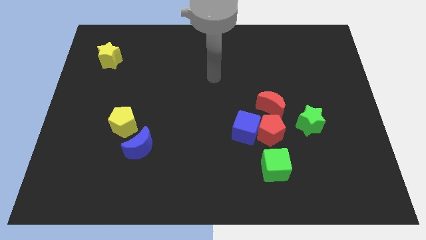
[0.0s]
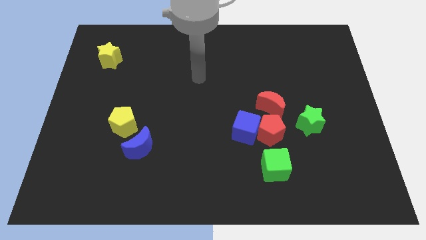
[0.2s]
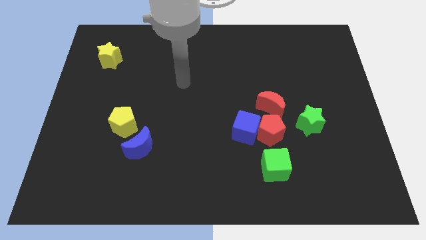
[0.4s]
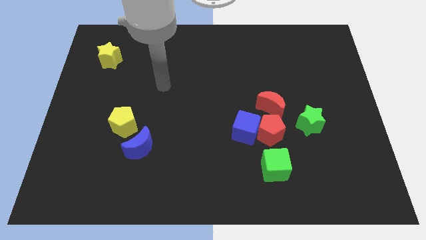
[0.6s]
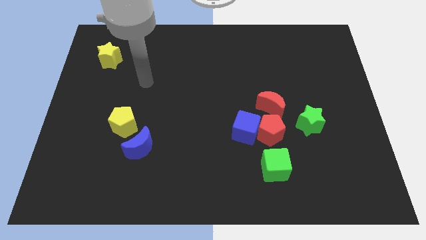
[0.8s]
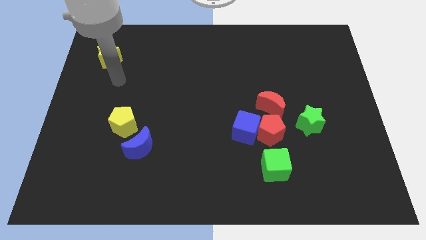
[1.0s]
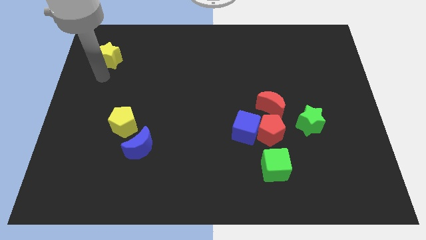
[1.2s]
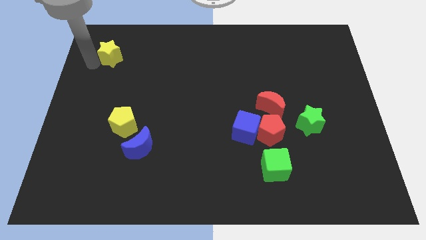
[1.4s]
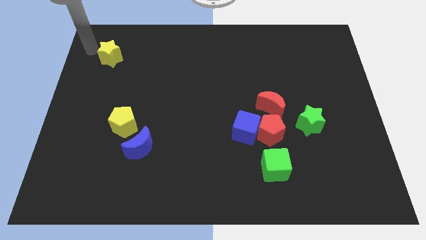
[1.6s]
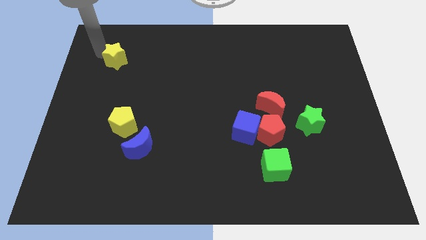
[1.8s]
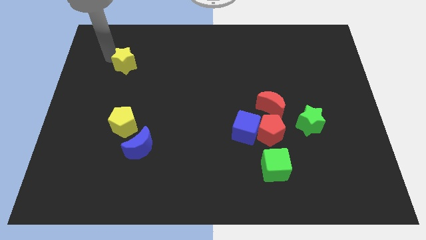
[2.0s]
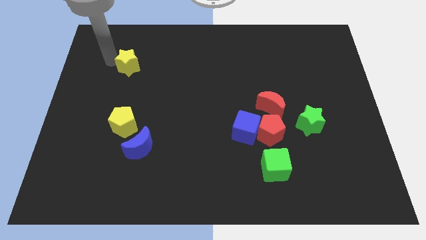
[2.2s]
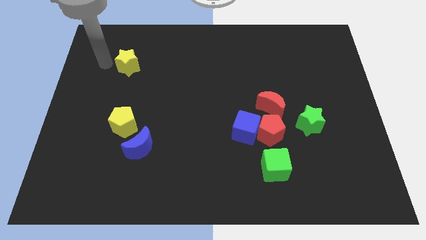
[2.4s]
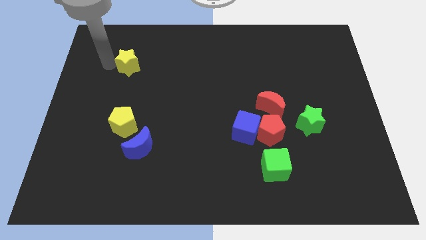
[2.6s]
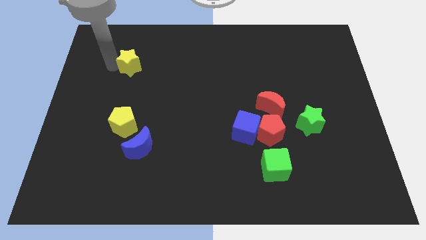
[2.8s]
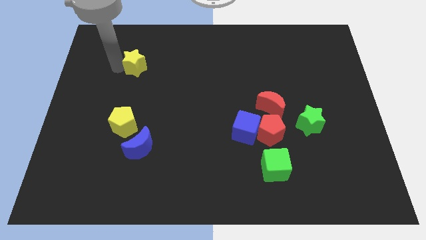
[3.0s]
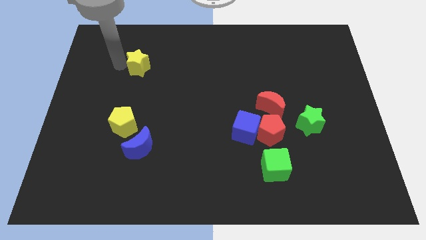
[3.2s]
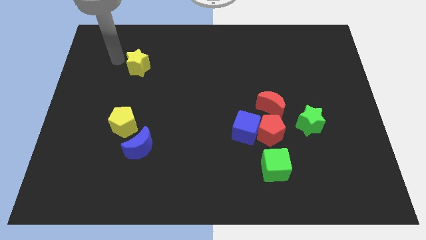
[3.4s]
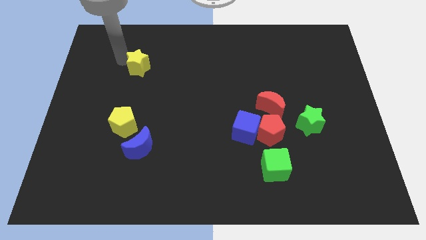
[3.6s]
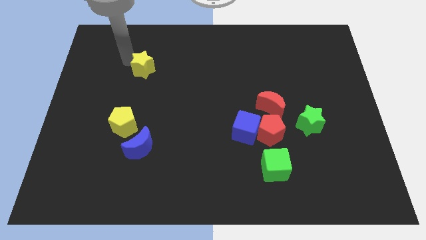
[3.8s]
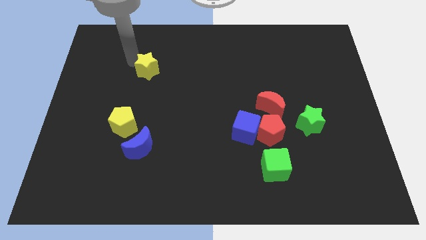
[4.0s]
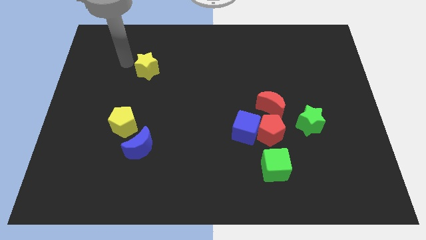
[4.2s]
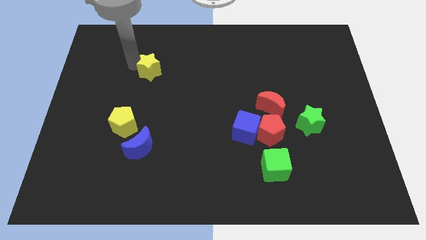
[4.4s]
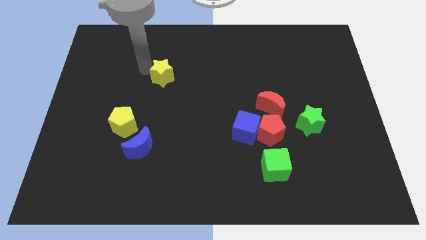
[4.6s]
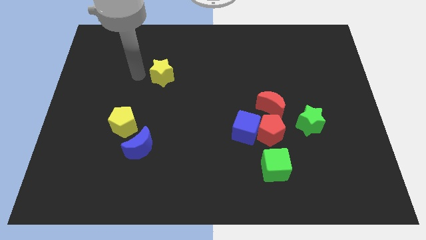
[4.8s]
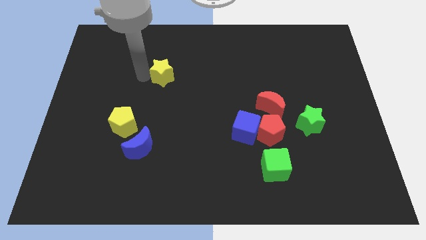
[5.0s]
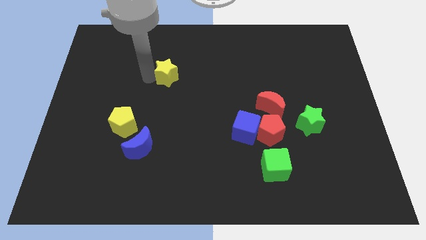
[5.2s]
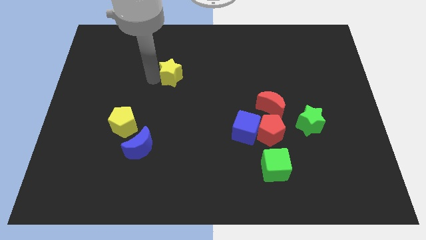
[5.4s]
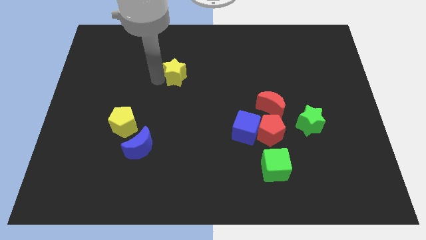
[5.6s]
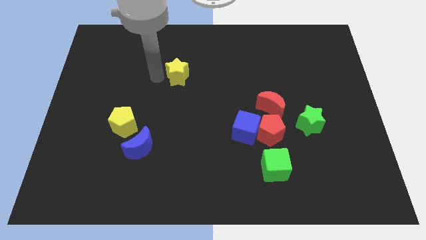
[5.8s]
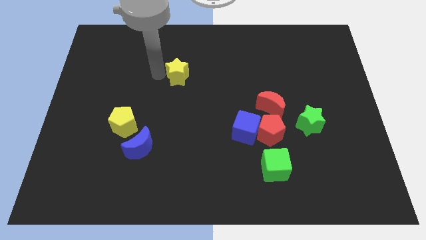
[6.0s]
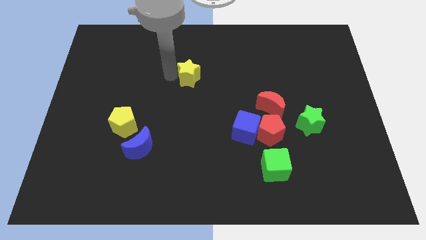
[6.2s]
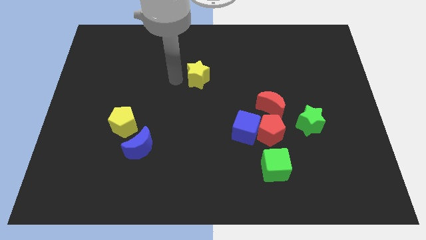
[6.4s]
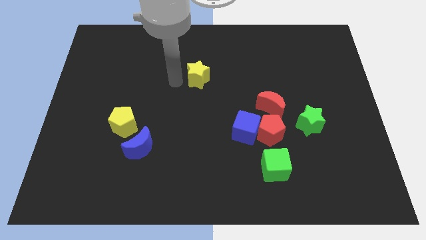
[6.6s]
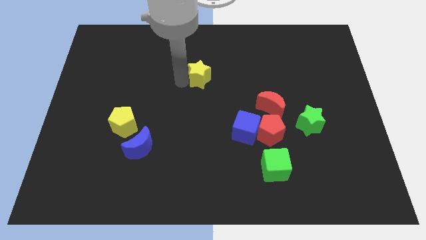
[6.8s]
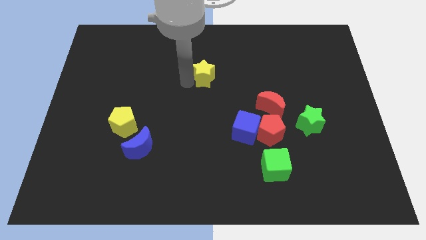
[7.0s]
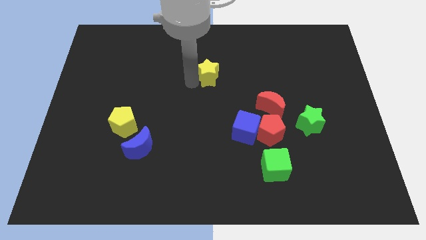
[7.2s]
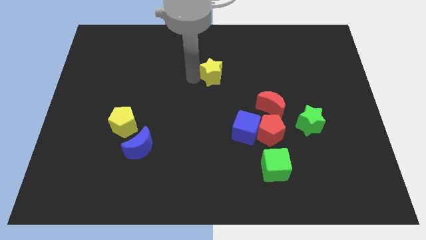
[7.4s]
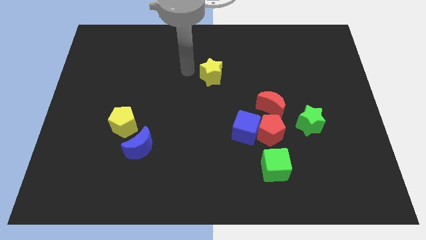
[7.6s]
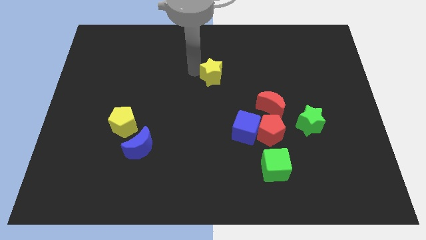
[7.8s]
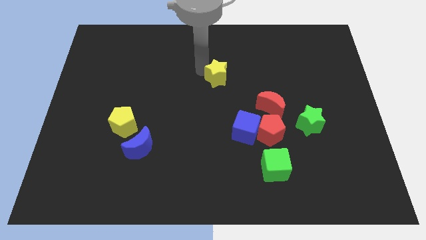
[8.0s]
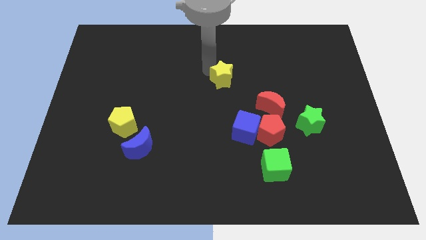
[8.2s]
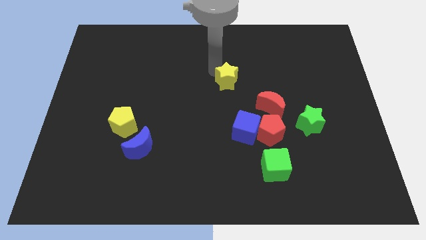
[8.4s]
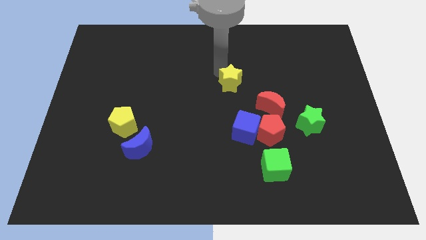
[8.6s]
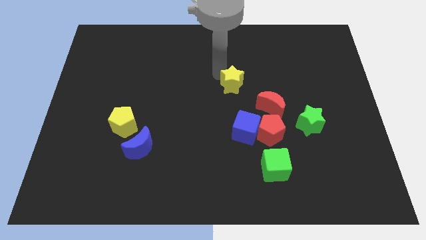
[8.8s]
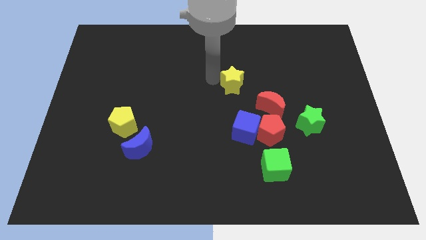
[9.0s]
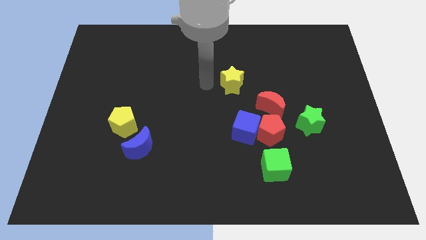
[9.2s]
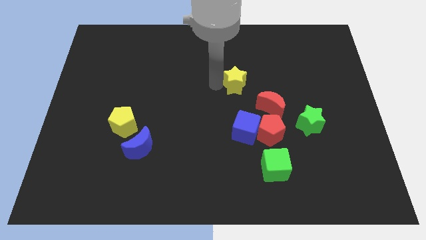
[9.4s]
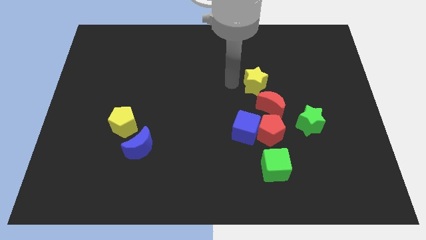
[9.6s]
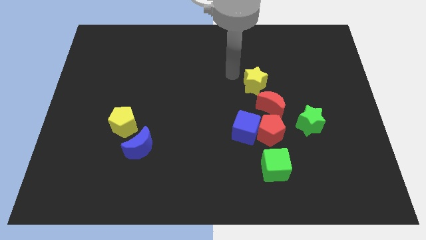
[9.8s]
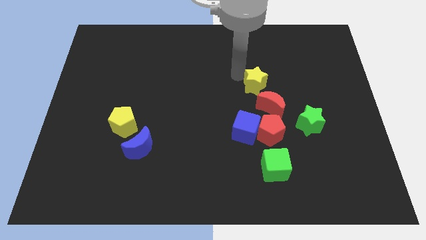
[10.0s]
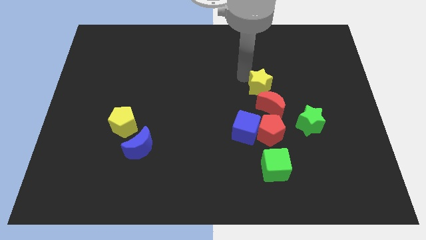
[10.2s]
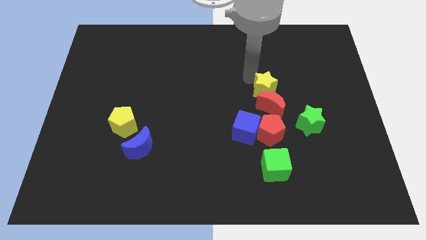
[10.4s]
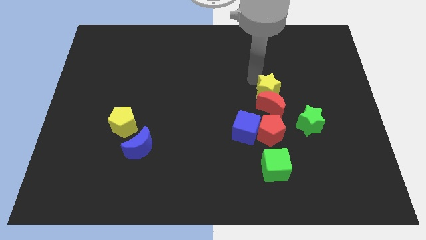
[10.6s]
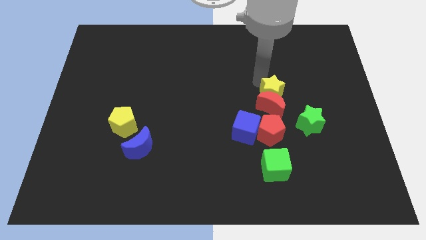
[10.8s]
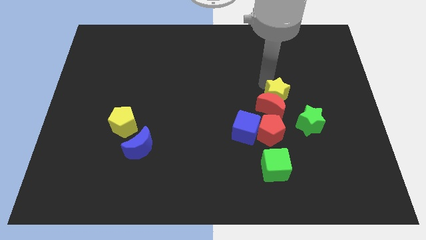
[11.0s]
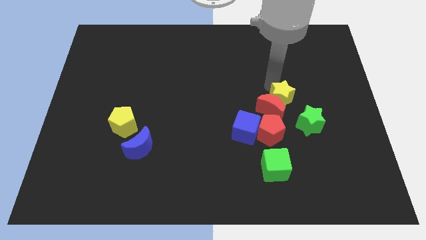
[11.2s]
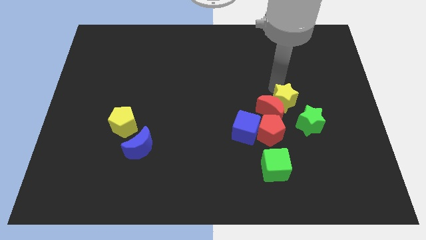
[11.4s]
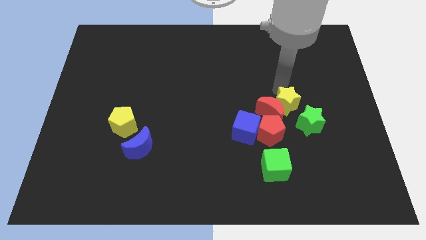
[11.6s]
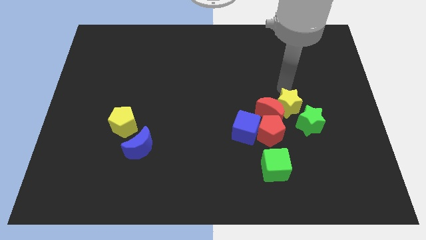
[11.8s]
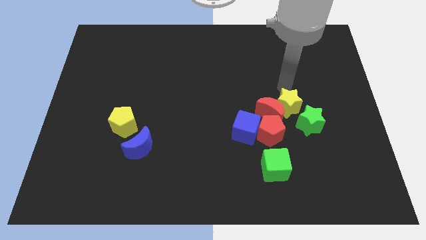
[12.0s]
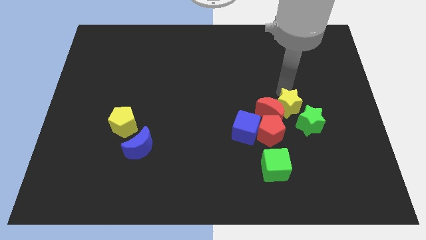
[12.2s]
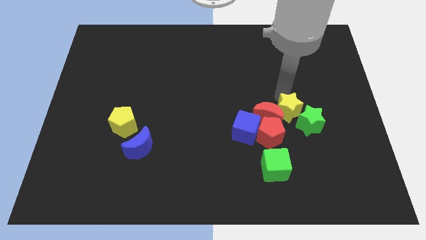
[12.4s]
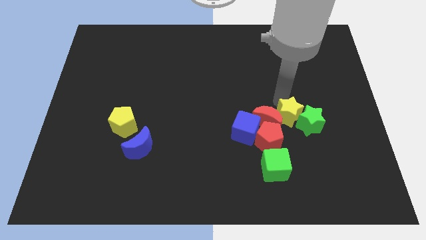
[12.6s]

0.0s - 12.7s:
slide the yellow star to the right side of the blue cube

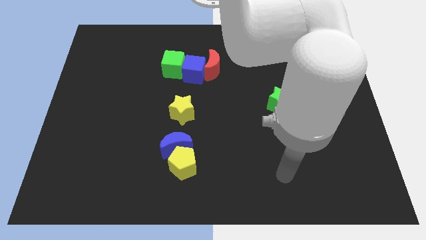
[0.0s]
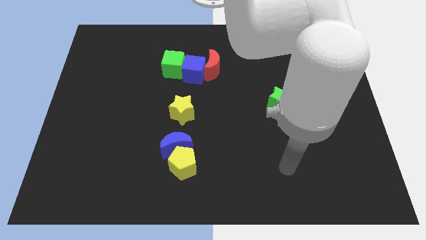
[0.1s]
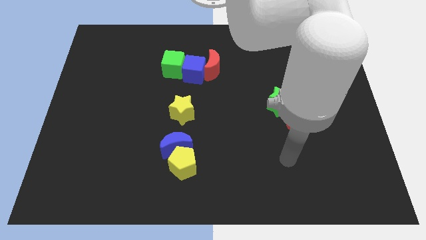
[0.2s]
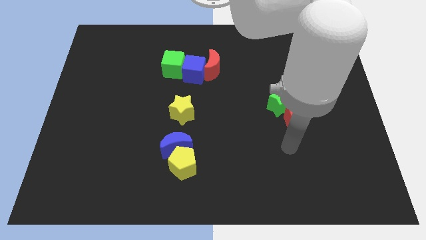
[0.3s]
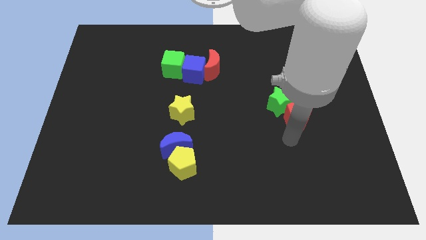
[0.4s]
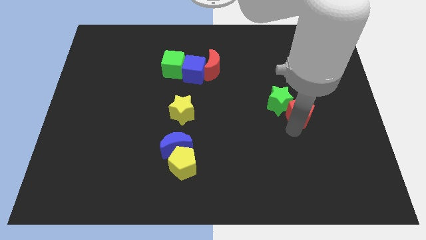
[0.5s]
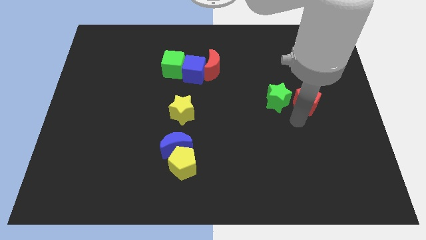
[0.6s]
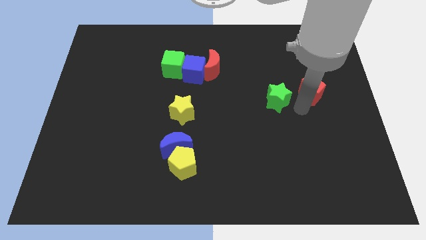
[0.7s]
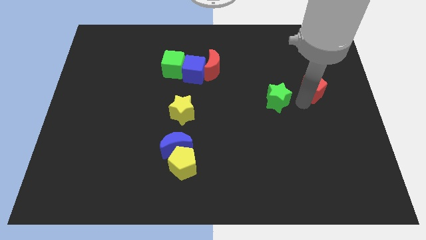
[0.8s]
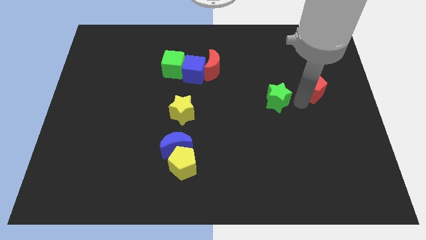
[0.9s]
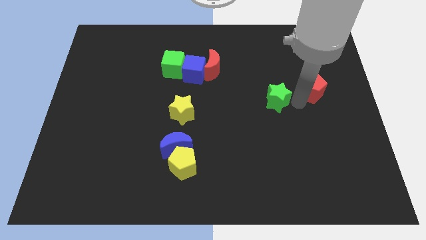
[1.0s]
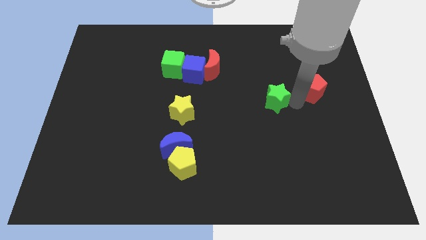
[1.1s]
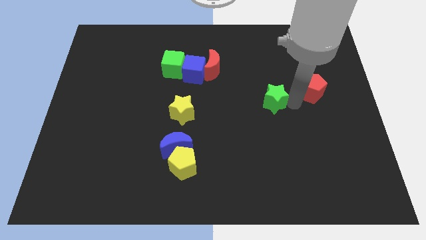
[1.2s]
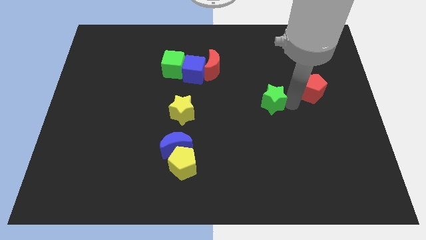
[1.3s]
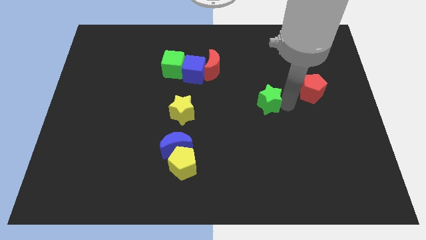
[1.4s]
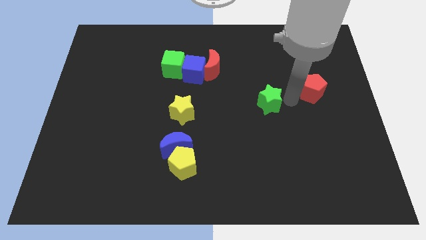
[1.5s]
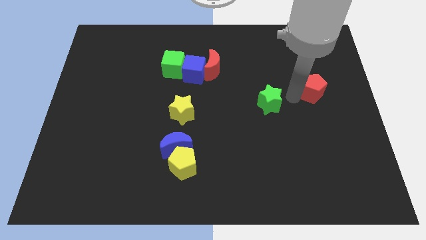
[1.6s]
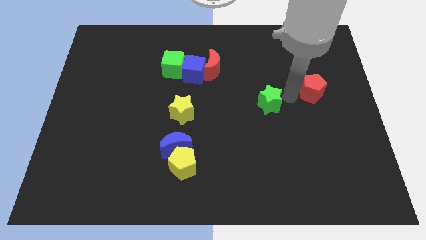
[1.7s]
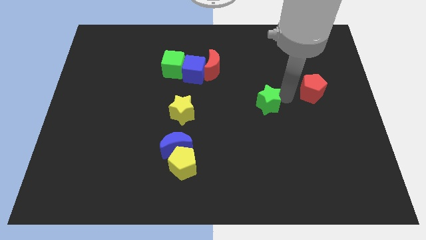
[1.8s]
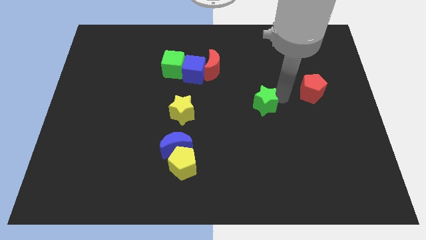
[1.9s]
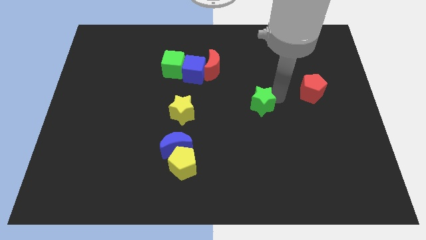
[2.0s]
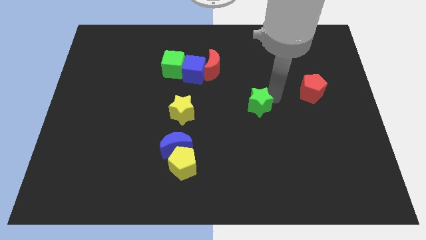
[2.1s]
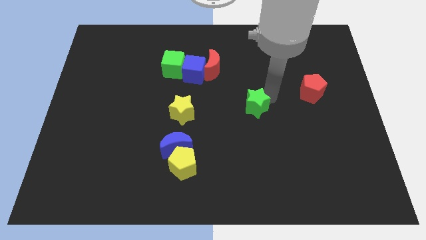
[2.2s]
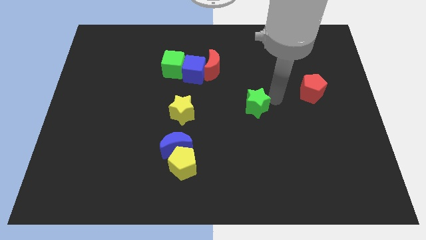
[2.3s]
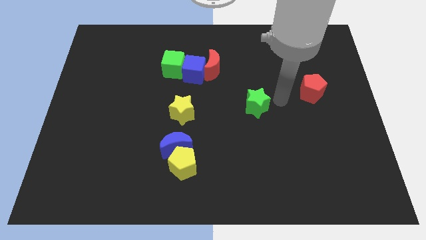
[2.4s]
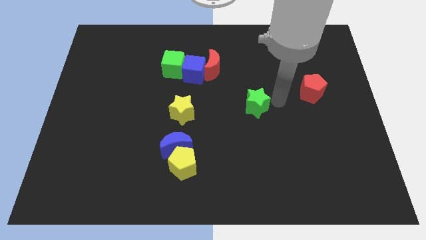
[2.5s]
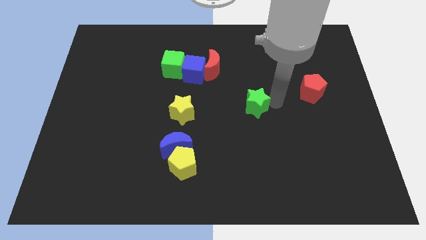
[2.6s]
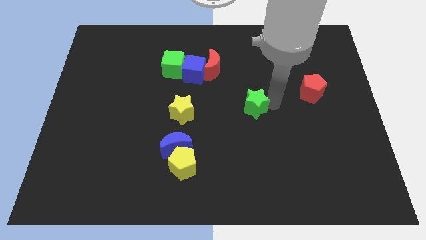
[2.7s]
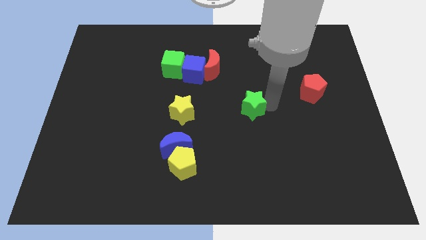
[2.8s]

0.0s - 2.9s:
push the green star just right of the yellow star
